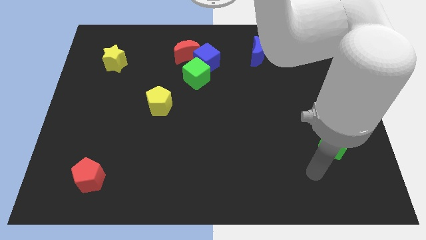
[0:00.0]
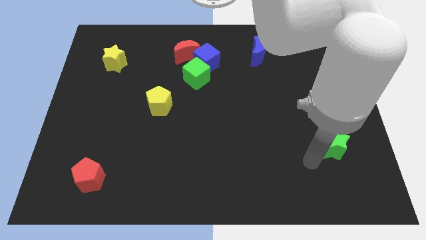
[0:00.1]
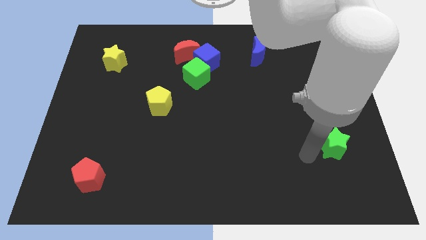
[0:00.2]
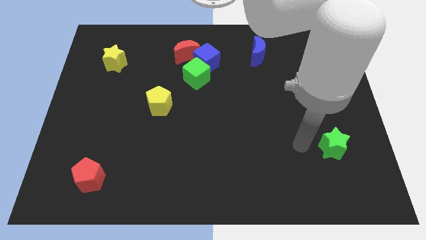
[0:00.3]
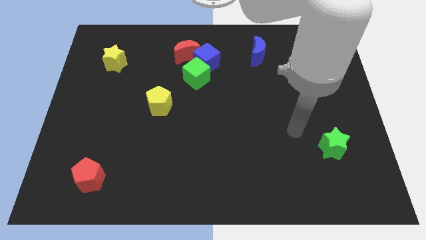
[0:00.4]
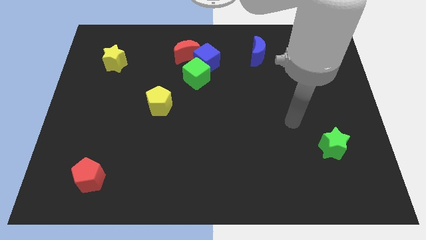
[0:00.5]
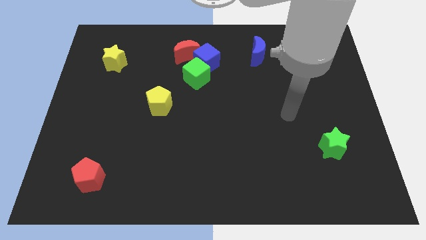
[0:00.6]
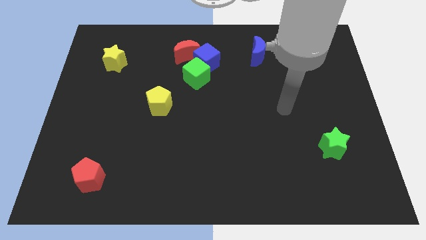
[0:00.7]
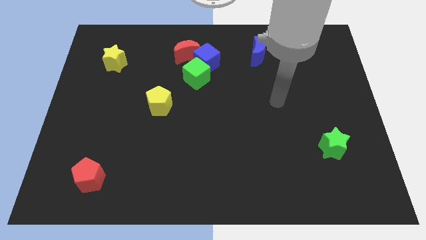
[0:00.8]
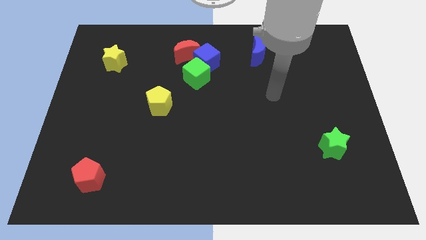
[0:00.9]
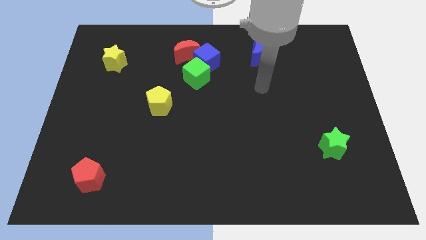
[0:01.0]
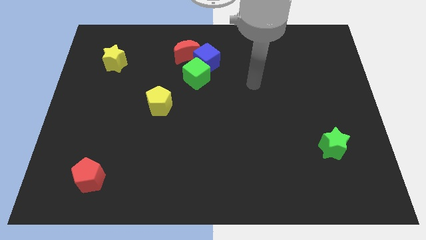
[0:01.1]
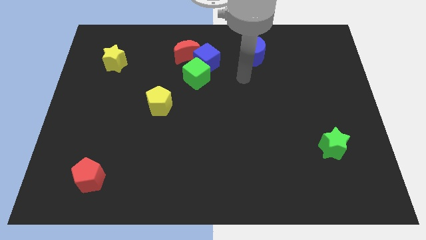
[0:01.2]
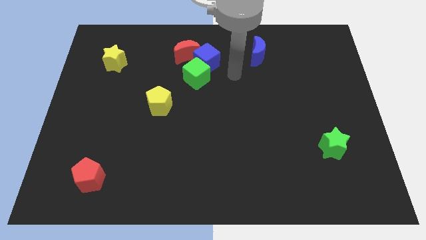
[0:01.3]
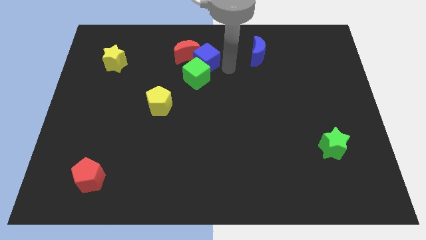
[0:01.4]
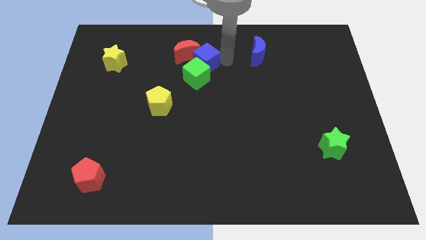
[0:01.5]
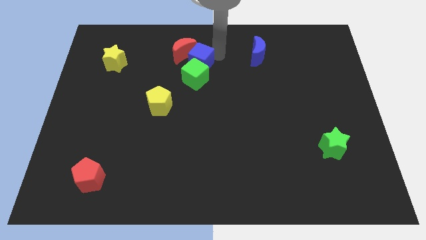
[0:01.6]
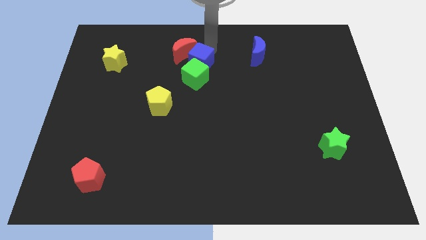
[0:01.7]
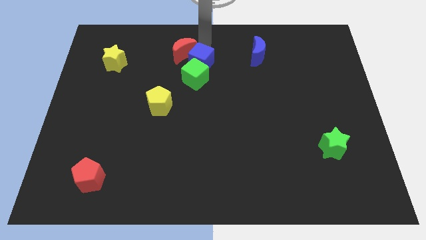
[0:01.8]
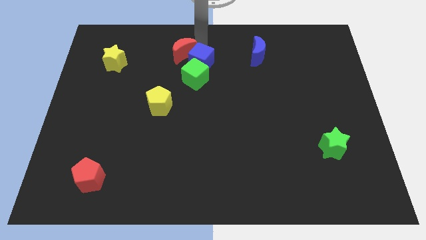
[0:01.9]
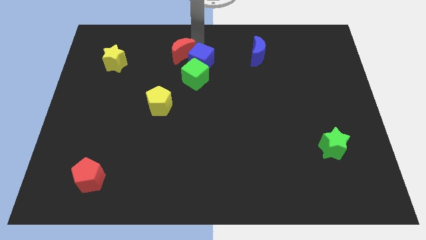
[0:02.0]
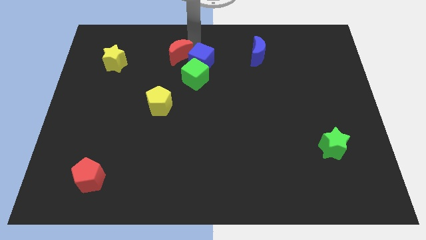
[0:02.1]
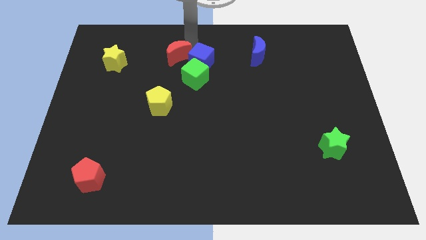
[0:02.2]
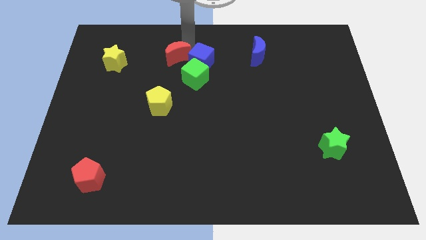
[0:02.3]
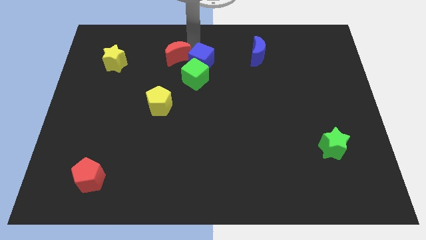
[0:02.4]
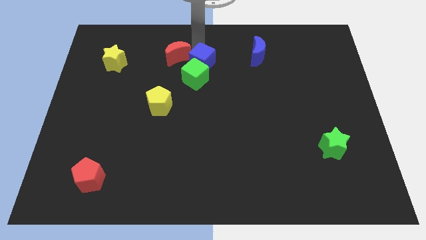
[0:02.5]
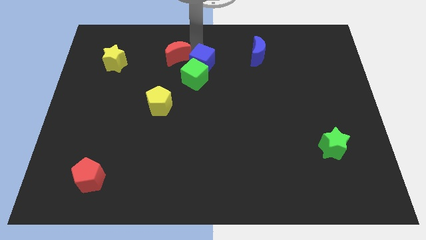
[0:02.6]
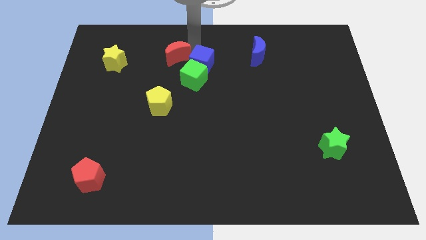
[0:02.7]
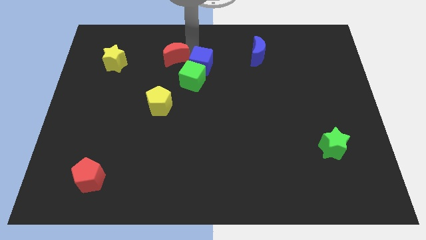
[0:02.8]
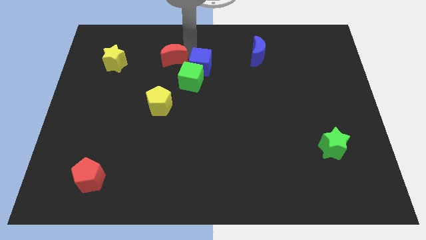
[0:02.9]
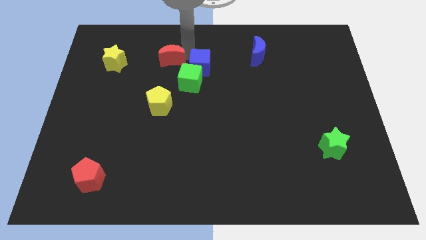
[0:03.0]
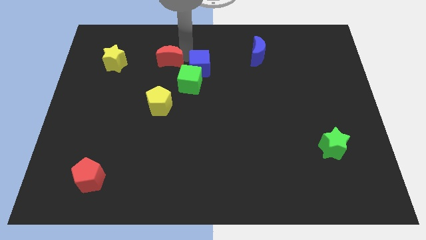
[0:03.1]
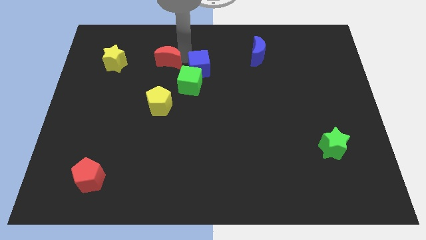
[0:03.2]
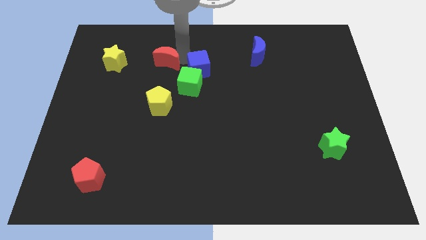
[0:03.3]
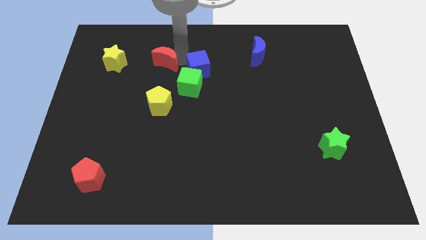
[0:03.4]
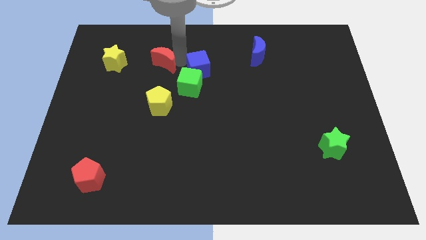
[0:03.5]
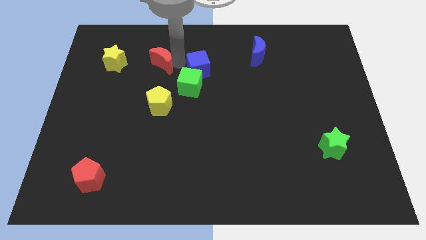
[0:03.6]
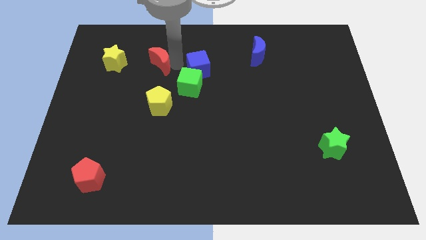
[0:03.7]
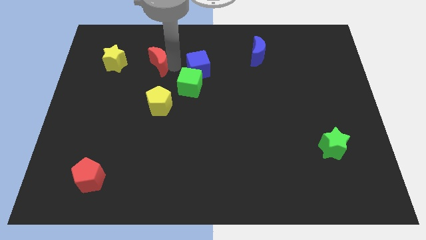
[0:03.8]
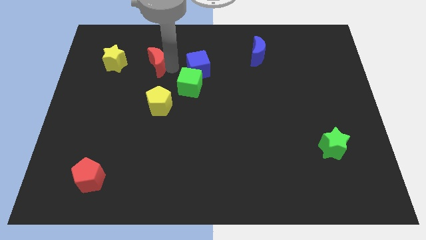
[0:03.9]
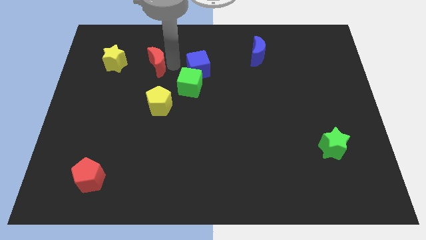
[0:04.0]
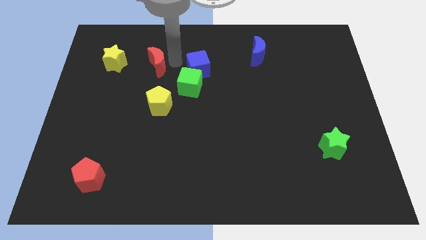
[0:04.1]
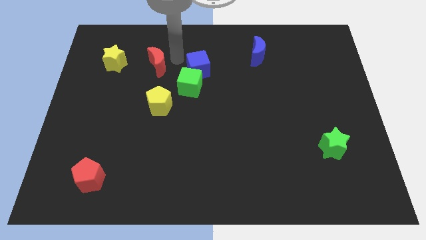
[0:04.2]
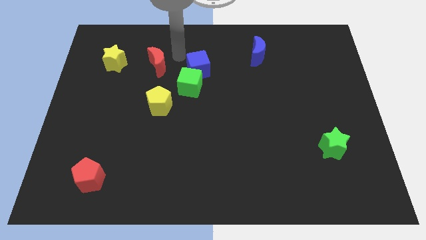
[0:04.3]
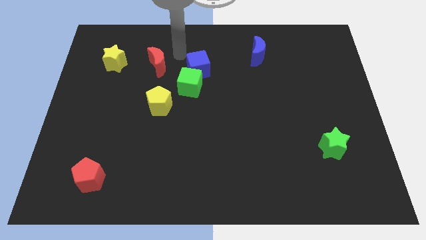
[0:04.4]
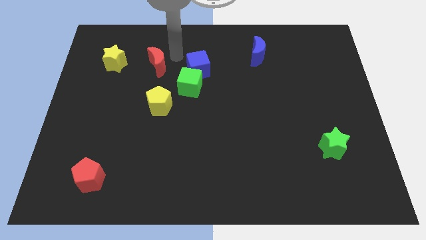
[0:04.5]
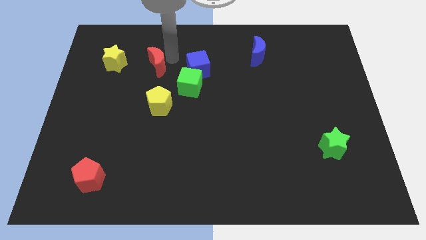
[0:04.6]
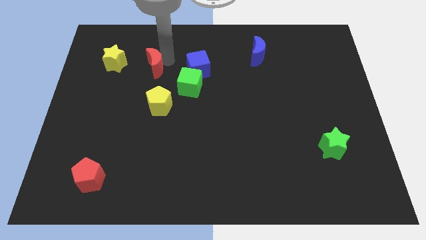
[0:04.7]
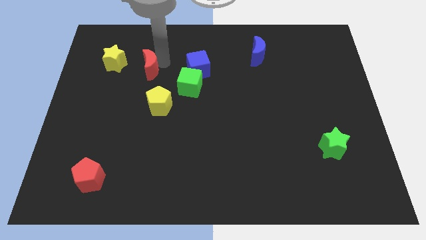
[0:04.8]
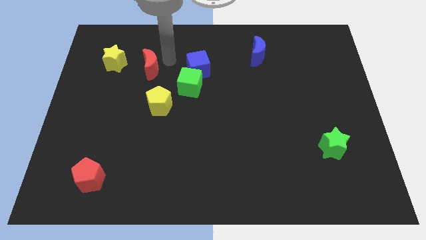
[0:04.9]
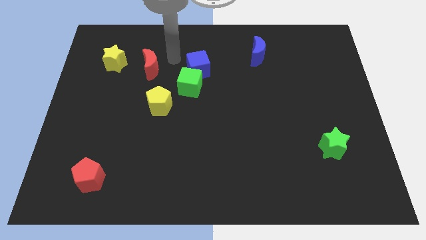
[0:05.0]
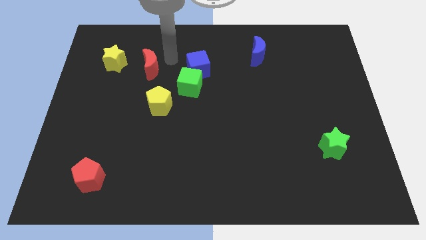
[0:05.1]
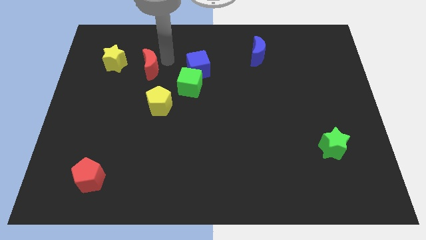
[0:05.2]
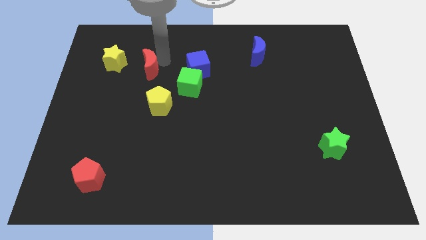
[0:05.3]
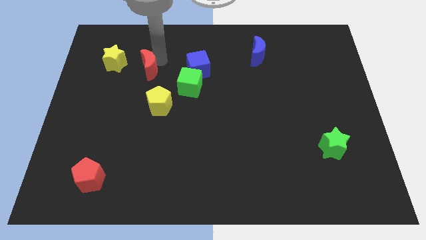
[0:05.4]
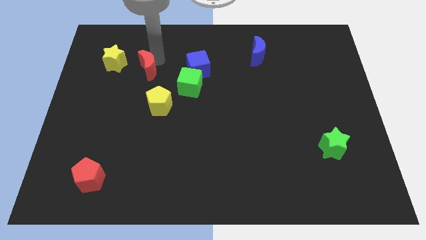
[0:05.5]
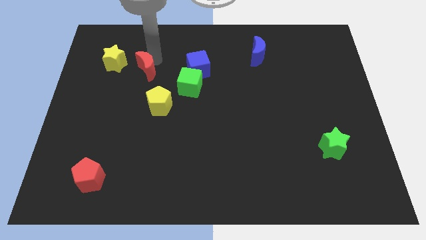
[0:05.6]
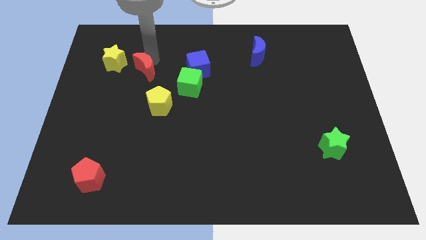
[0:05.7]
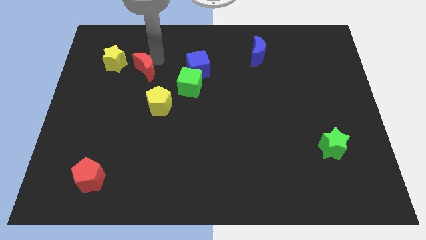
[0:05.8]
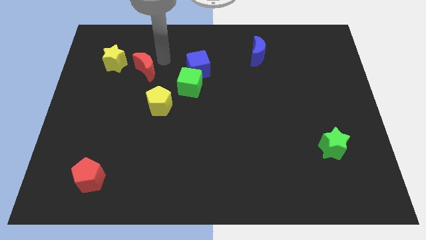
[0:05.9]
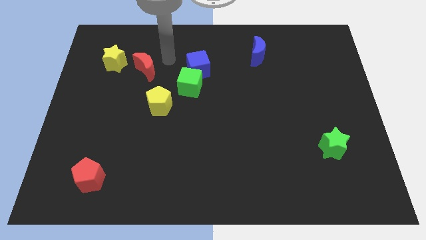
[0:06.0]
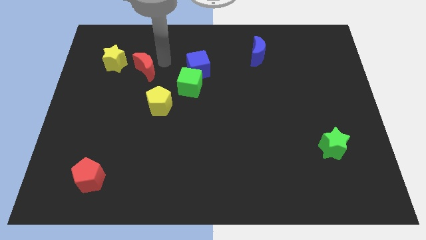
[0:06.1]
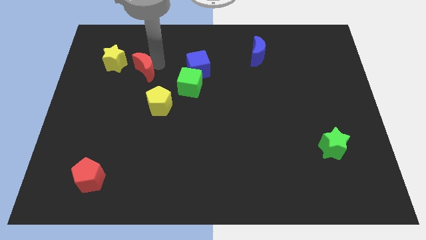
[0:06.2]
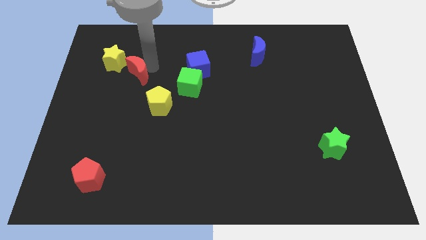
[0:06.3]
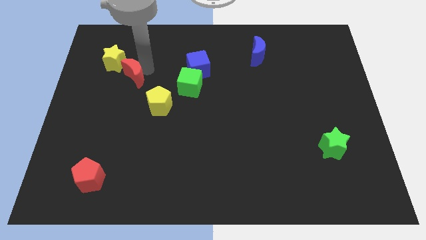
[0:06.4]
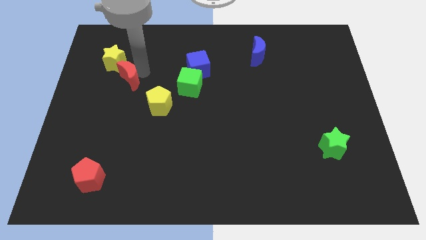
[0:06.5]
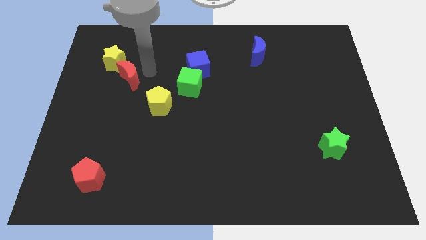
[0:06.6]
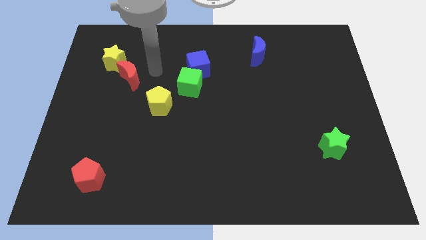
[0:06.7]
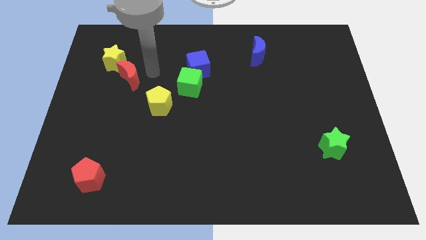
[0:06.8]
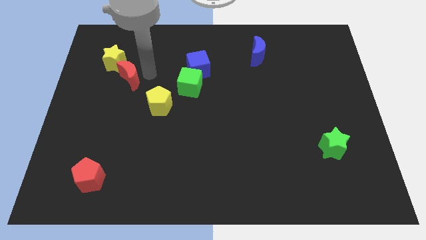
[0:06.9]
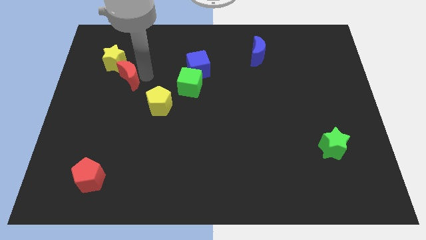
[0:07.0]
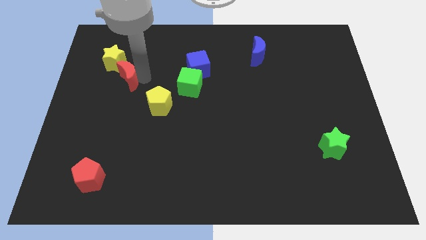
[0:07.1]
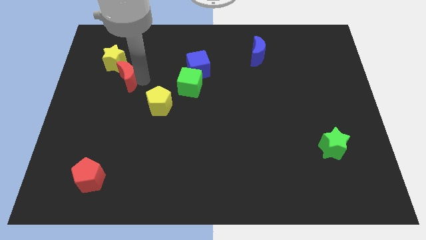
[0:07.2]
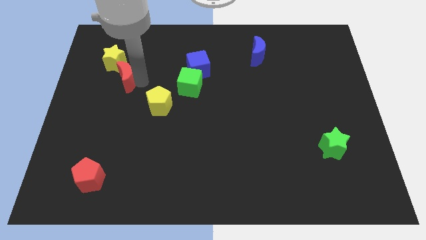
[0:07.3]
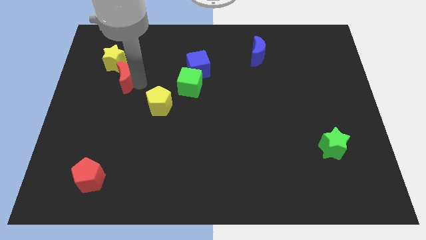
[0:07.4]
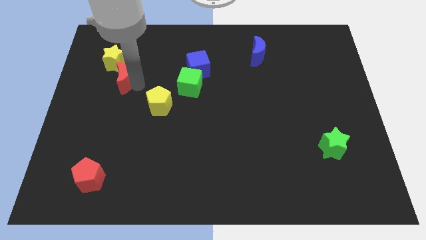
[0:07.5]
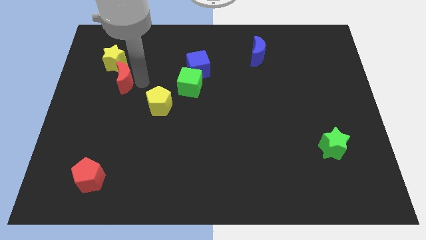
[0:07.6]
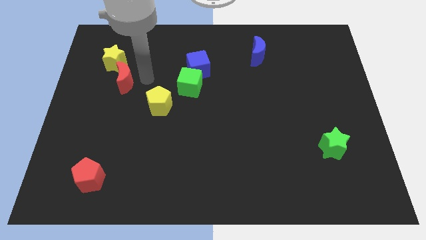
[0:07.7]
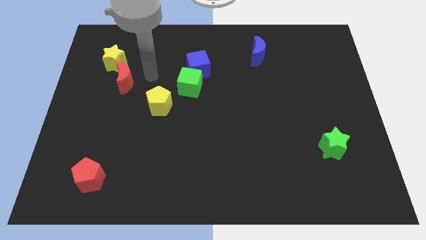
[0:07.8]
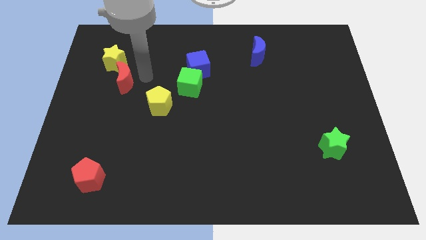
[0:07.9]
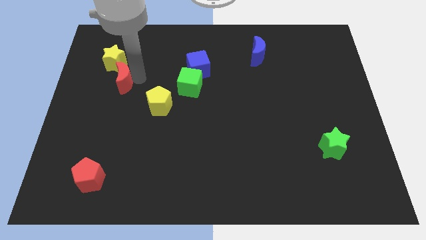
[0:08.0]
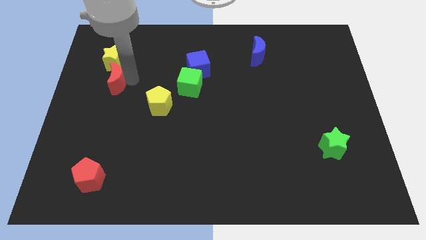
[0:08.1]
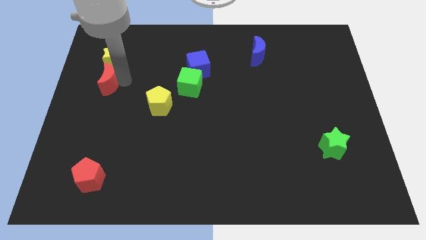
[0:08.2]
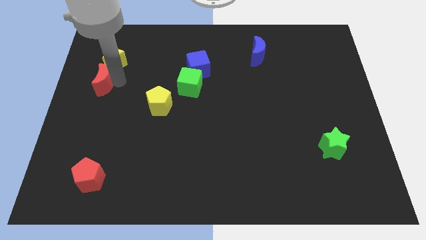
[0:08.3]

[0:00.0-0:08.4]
slide the red moon to the left side
